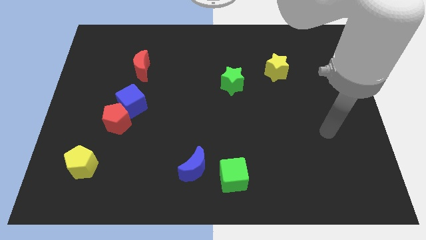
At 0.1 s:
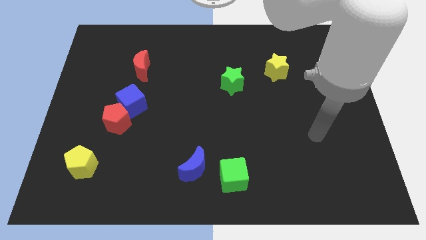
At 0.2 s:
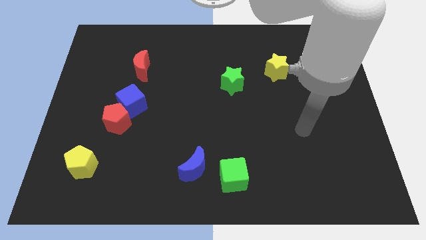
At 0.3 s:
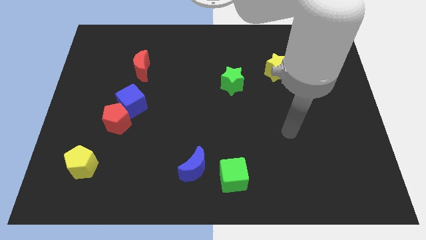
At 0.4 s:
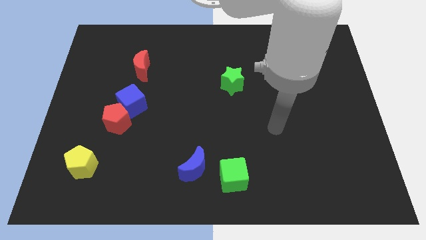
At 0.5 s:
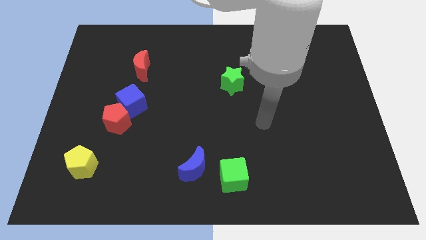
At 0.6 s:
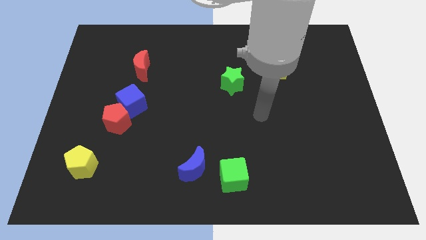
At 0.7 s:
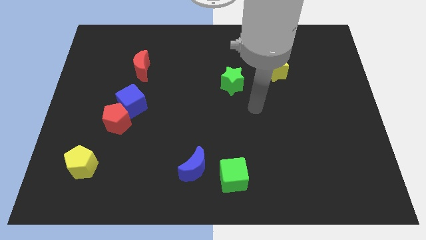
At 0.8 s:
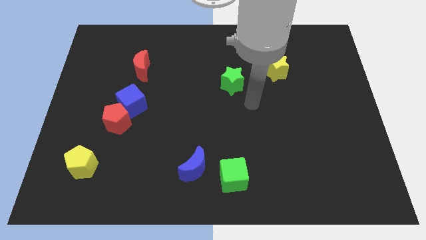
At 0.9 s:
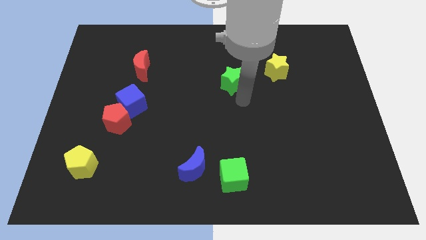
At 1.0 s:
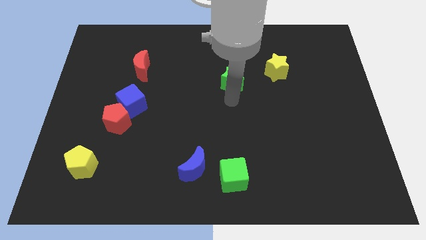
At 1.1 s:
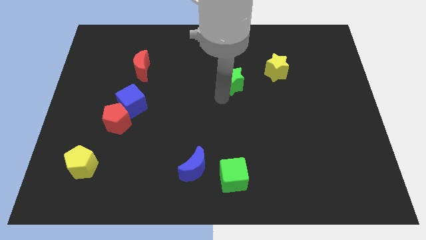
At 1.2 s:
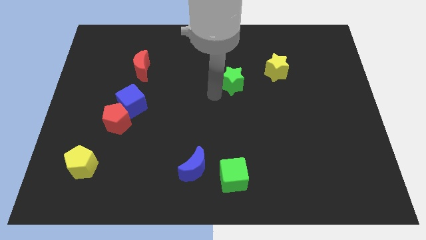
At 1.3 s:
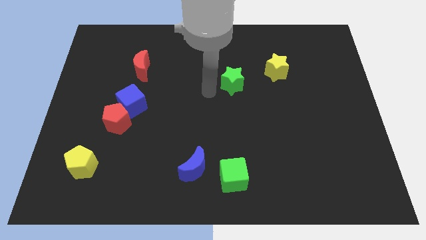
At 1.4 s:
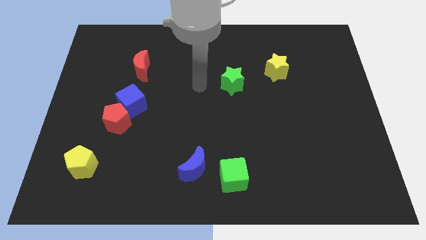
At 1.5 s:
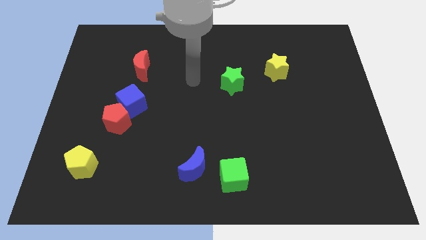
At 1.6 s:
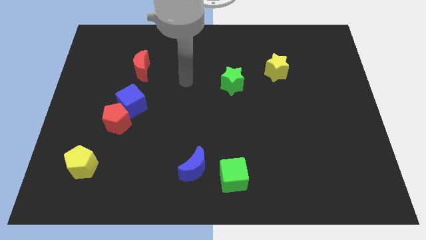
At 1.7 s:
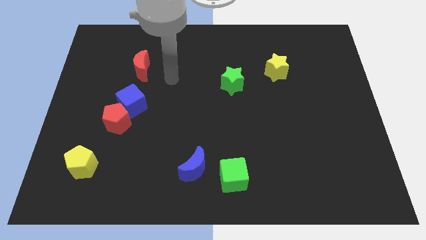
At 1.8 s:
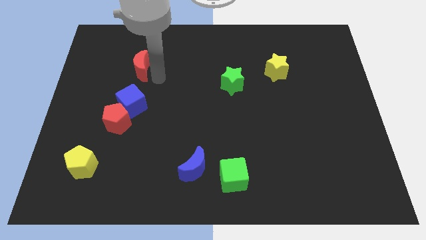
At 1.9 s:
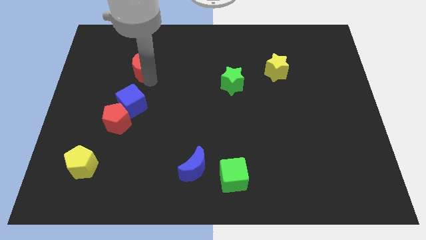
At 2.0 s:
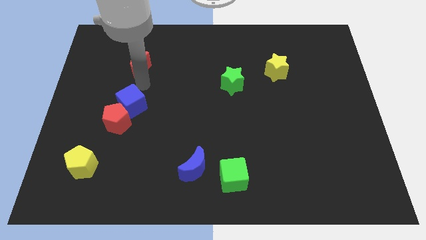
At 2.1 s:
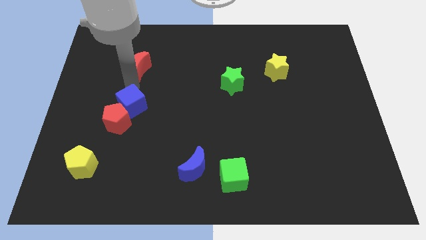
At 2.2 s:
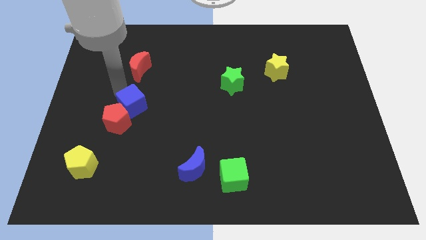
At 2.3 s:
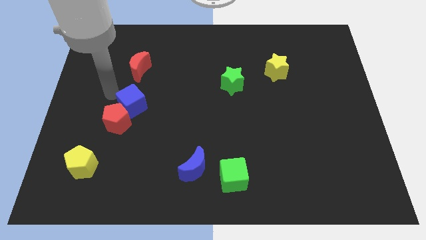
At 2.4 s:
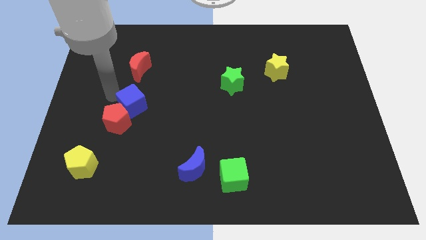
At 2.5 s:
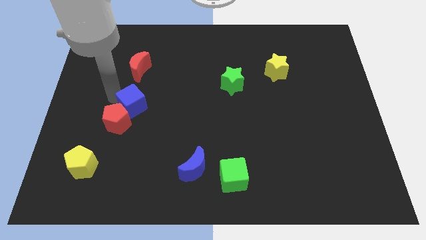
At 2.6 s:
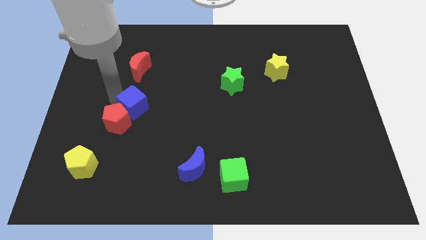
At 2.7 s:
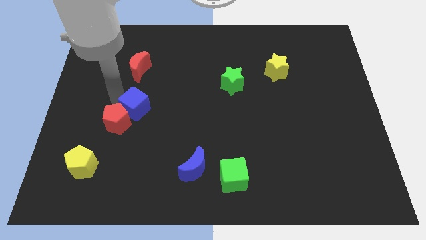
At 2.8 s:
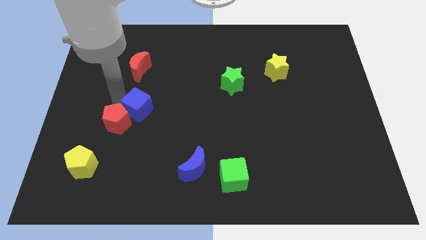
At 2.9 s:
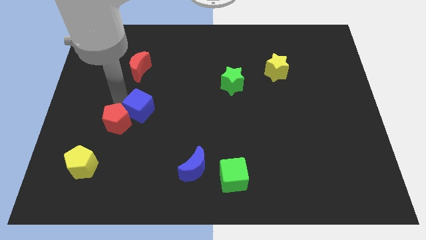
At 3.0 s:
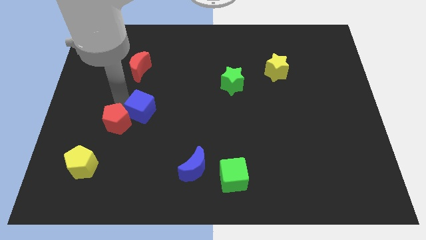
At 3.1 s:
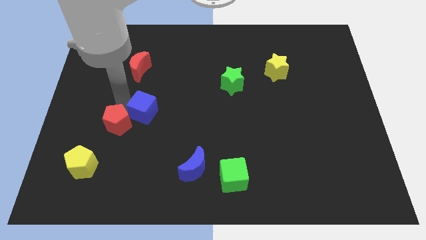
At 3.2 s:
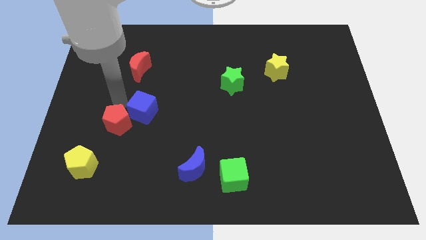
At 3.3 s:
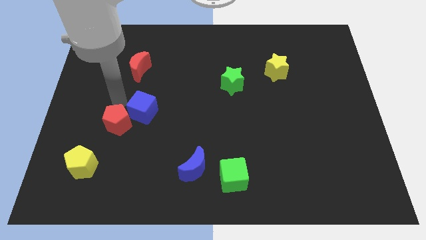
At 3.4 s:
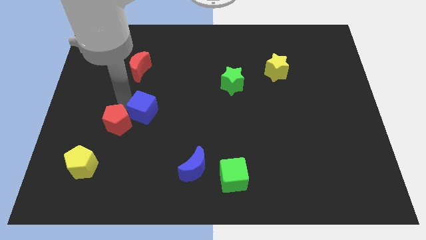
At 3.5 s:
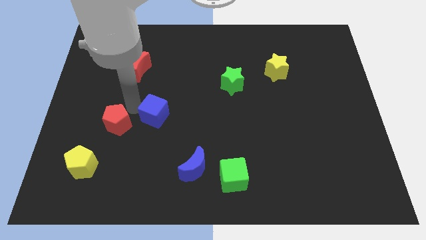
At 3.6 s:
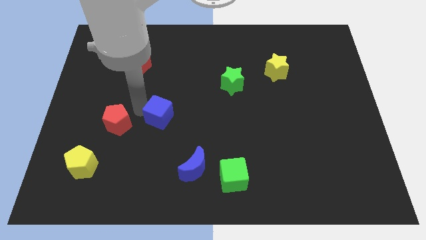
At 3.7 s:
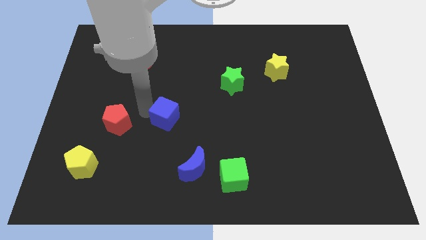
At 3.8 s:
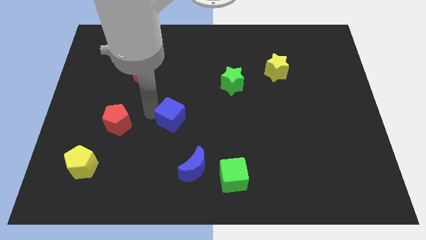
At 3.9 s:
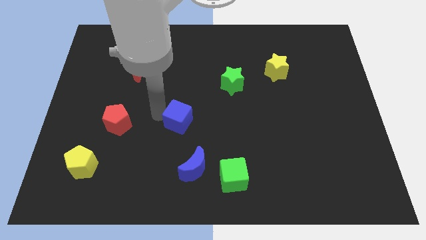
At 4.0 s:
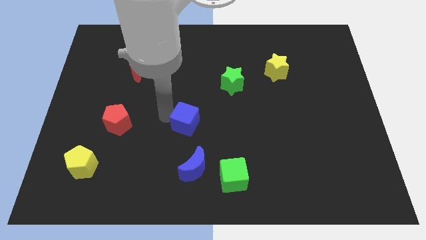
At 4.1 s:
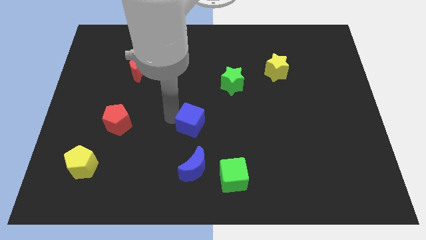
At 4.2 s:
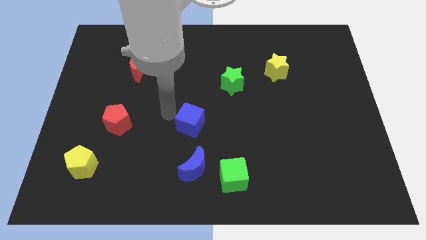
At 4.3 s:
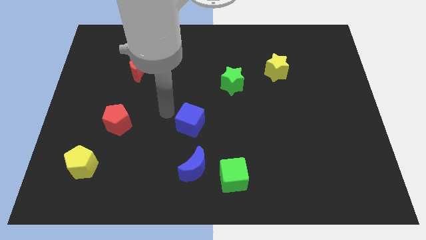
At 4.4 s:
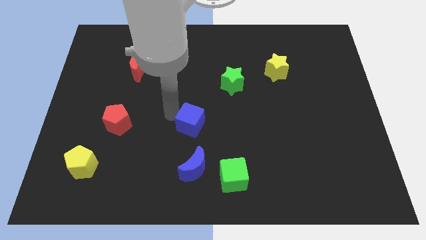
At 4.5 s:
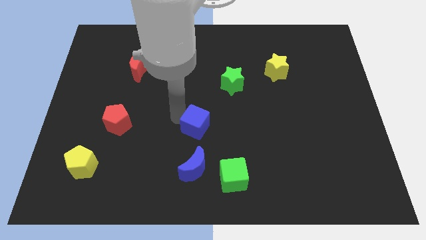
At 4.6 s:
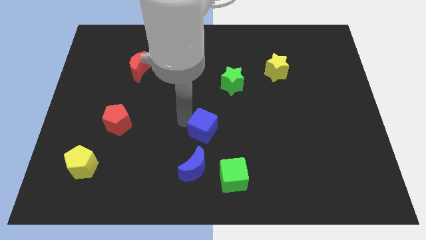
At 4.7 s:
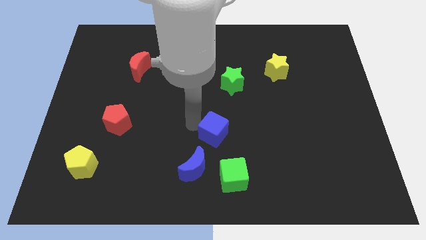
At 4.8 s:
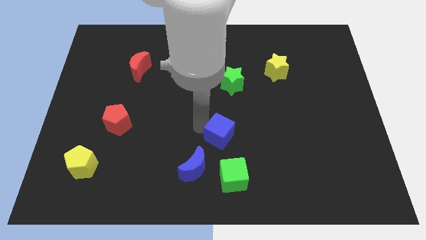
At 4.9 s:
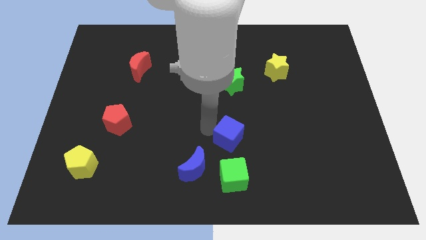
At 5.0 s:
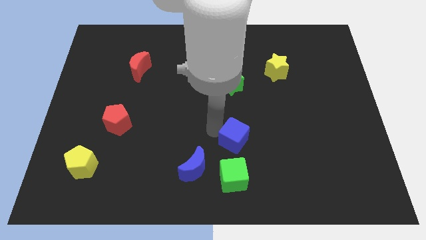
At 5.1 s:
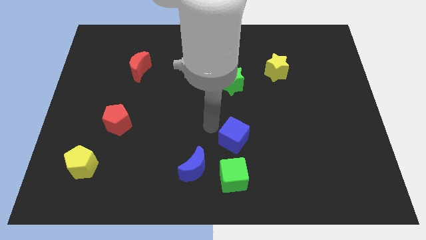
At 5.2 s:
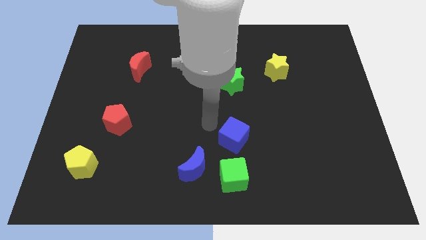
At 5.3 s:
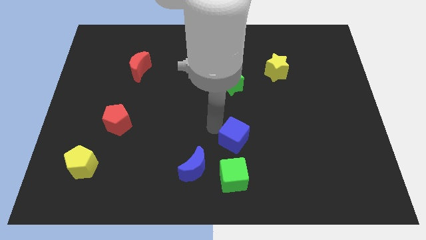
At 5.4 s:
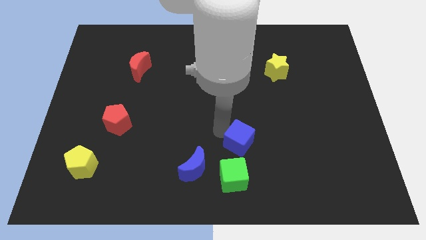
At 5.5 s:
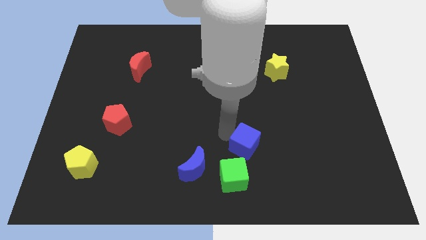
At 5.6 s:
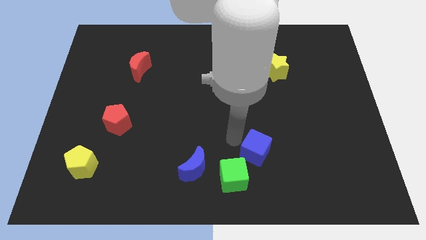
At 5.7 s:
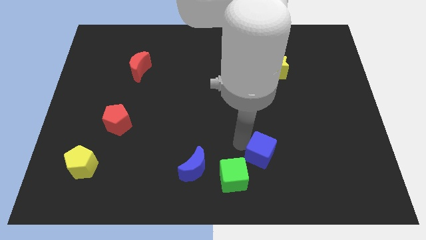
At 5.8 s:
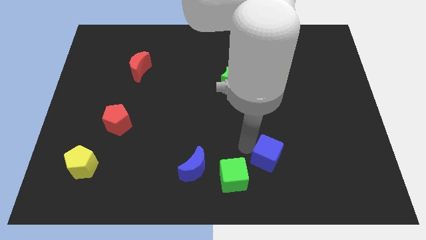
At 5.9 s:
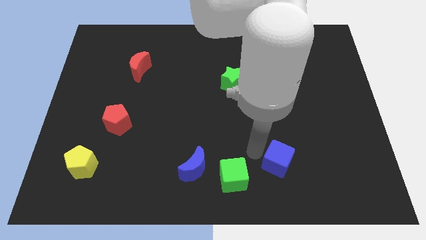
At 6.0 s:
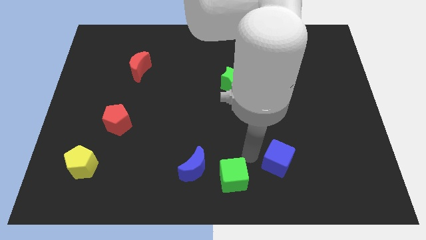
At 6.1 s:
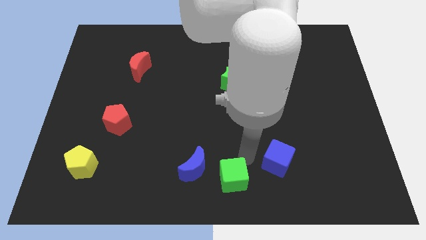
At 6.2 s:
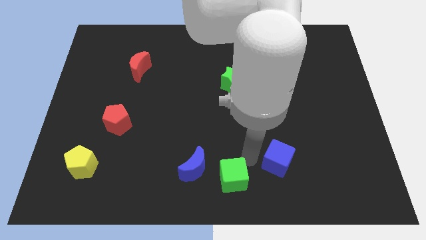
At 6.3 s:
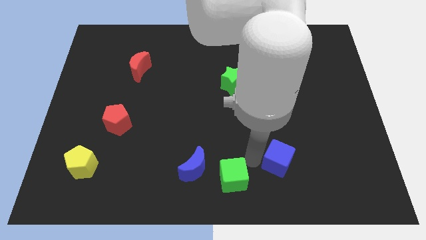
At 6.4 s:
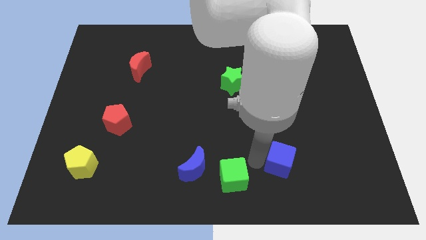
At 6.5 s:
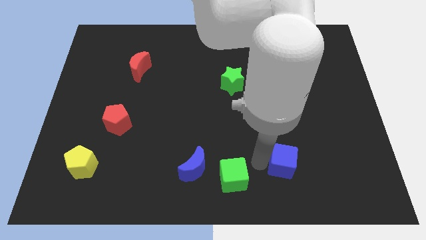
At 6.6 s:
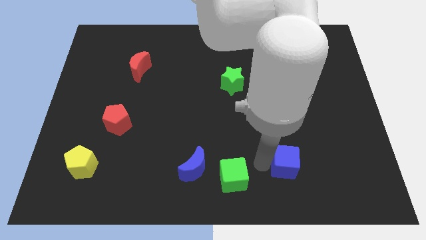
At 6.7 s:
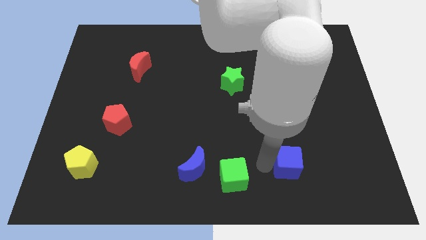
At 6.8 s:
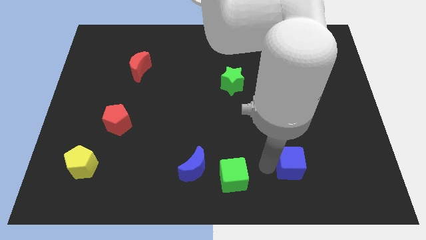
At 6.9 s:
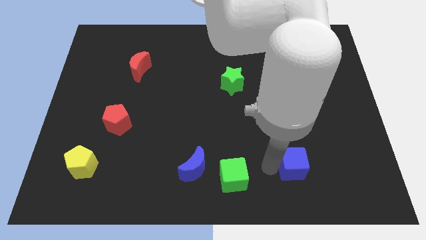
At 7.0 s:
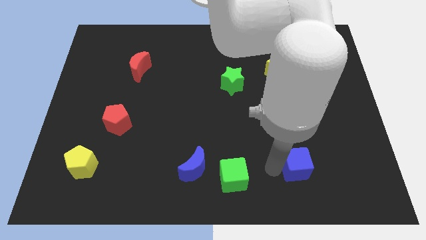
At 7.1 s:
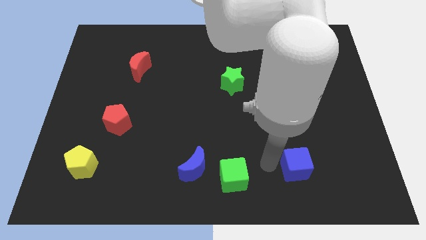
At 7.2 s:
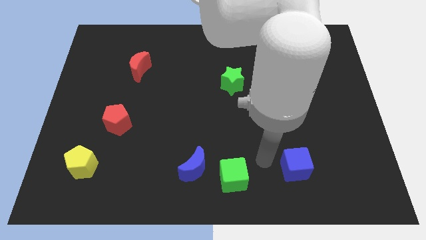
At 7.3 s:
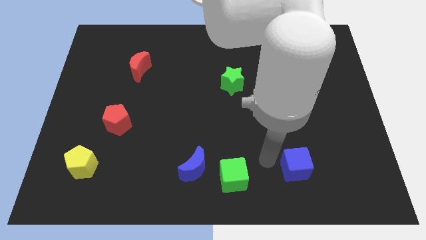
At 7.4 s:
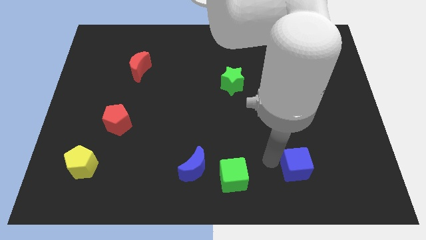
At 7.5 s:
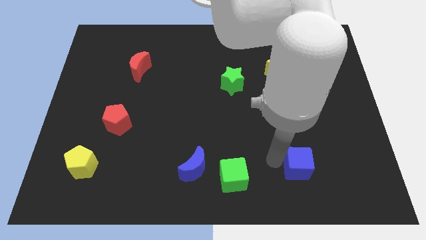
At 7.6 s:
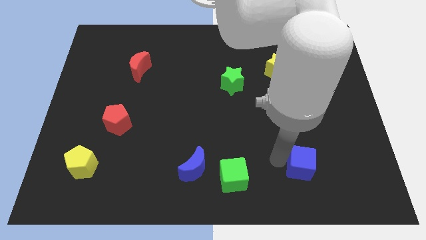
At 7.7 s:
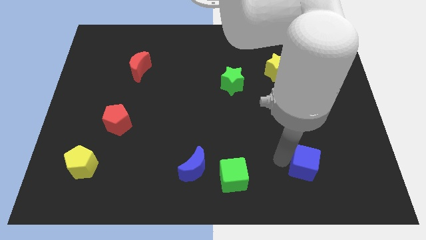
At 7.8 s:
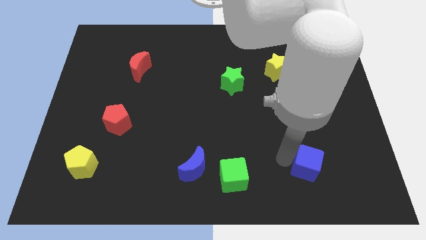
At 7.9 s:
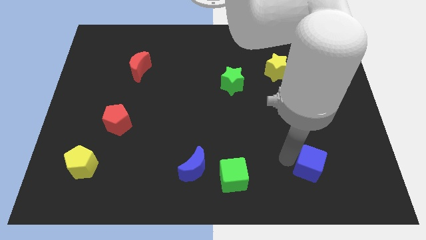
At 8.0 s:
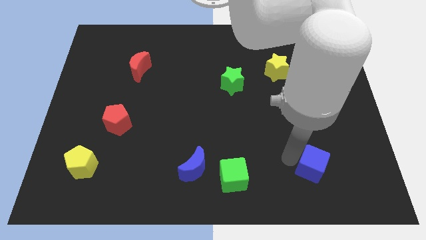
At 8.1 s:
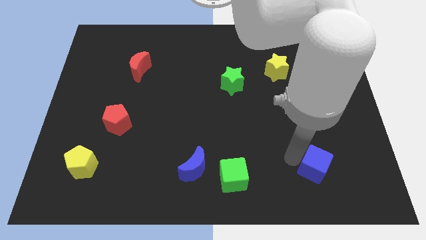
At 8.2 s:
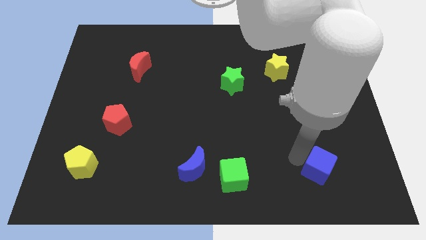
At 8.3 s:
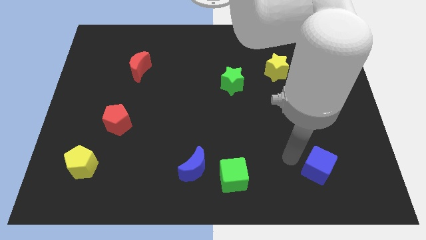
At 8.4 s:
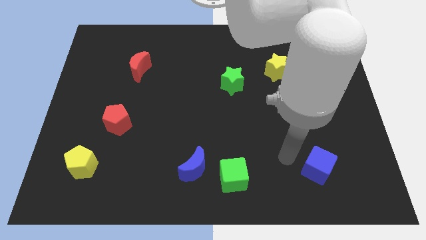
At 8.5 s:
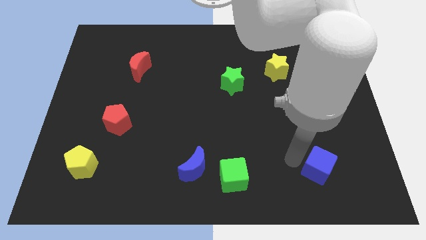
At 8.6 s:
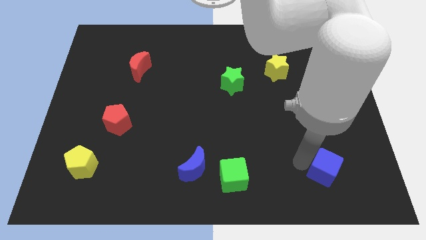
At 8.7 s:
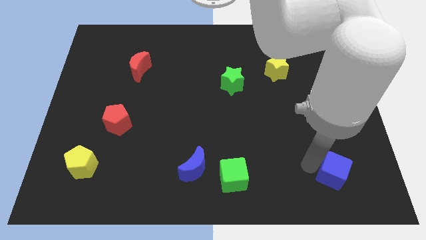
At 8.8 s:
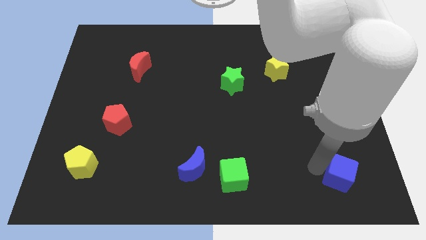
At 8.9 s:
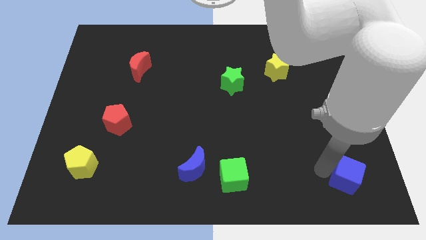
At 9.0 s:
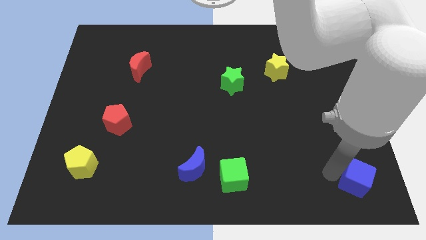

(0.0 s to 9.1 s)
move the blue cube to the bottom right of the board
